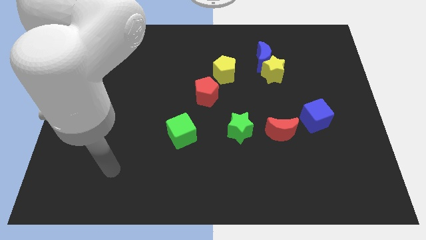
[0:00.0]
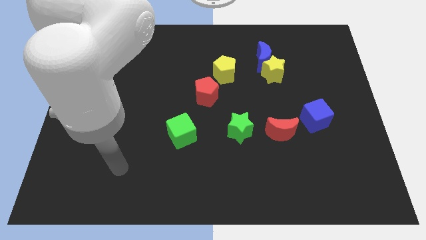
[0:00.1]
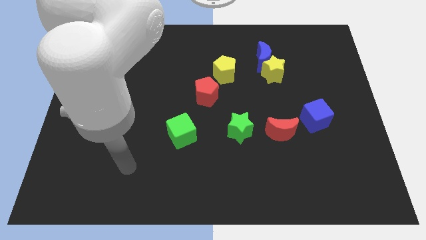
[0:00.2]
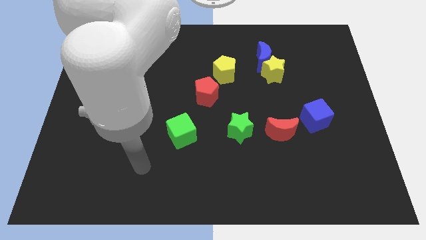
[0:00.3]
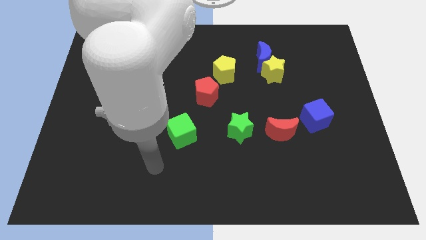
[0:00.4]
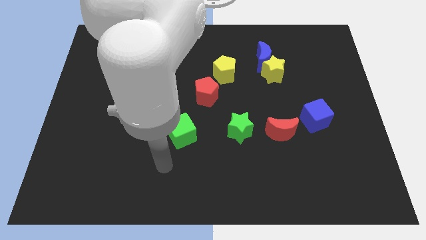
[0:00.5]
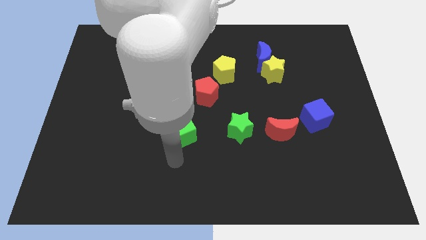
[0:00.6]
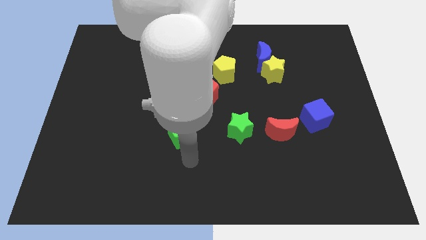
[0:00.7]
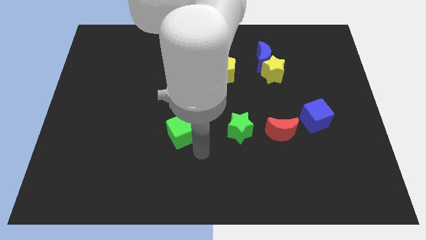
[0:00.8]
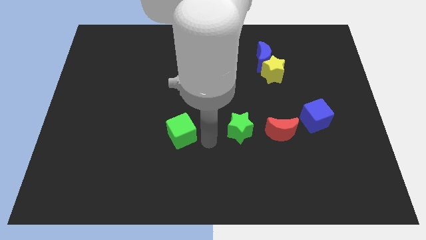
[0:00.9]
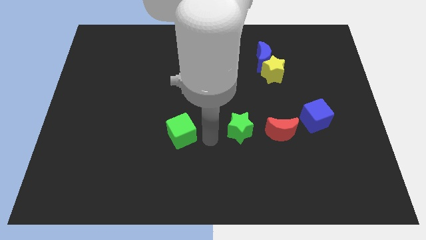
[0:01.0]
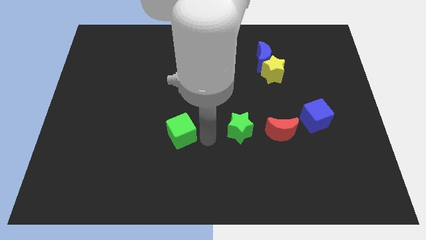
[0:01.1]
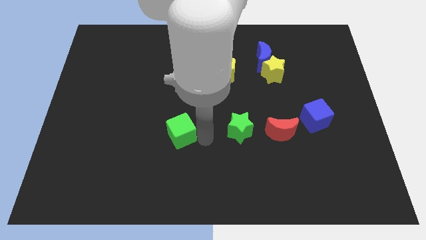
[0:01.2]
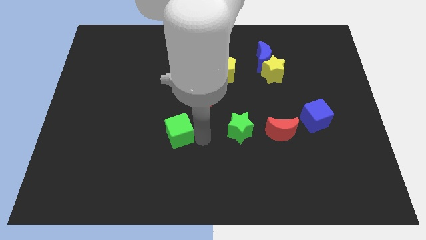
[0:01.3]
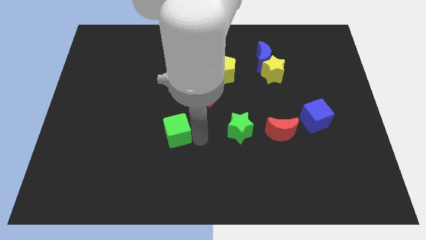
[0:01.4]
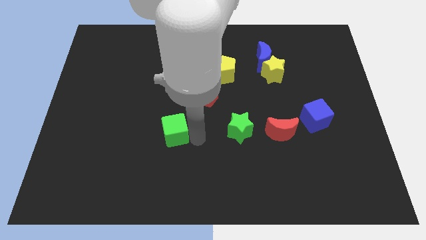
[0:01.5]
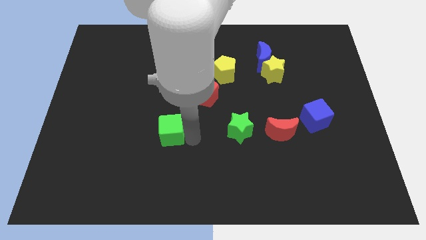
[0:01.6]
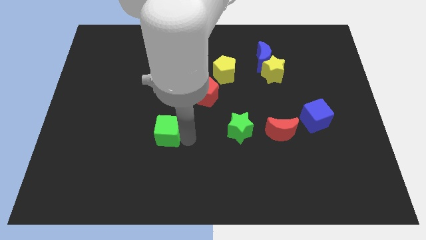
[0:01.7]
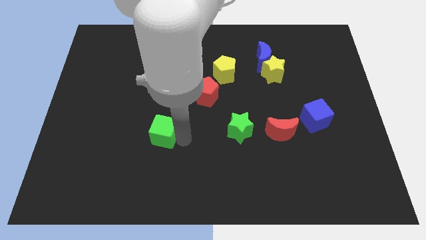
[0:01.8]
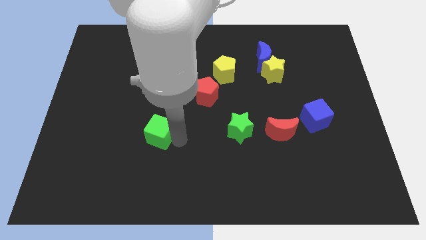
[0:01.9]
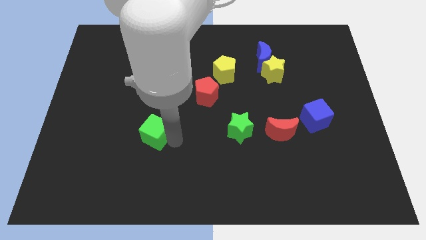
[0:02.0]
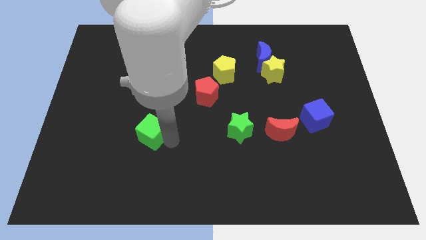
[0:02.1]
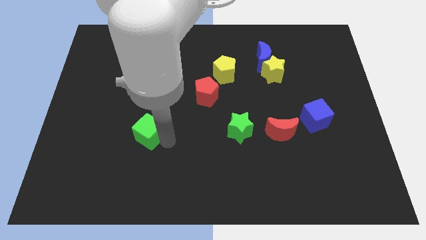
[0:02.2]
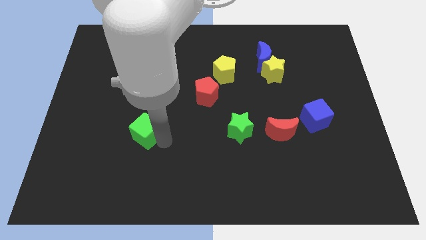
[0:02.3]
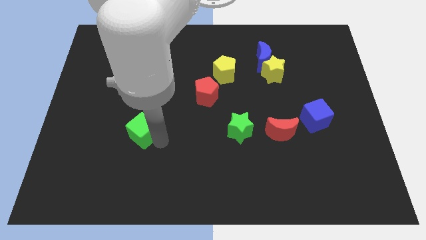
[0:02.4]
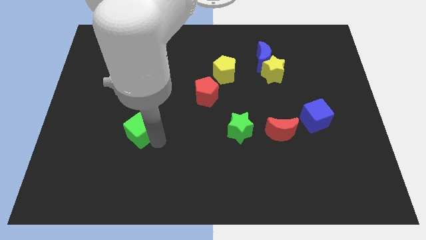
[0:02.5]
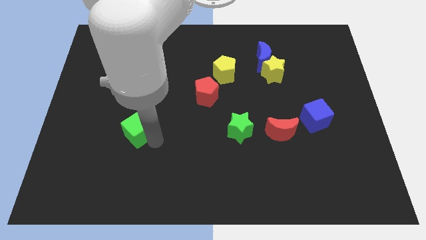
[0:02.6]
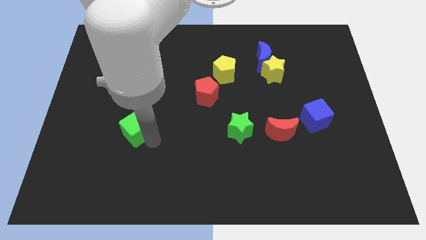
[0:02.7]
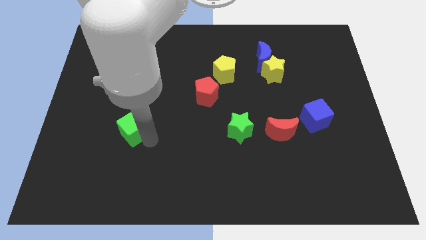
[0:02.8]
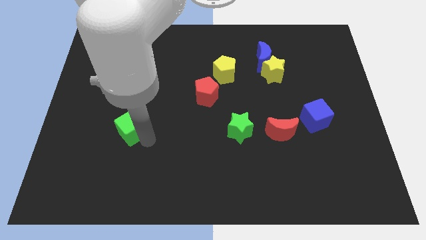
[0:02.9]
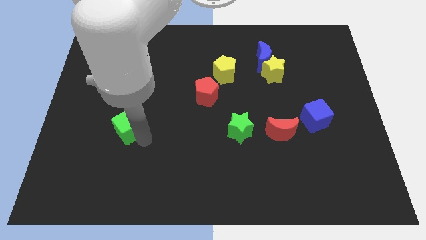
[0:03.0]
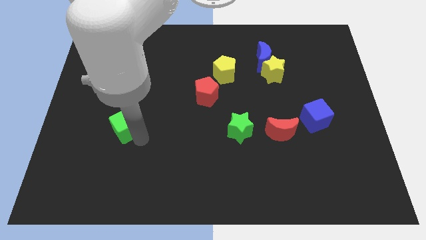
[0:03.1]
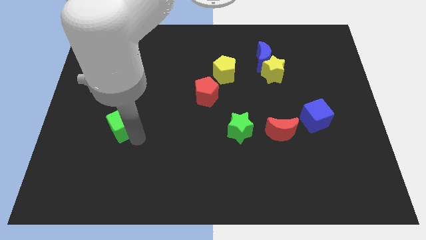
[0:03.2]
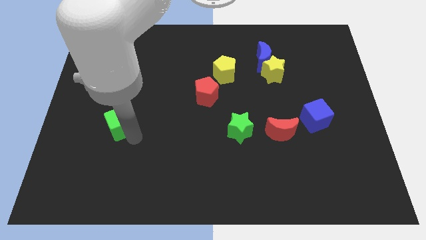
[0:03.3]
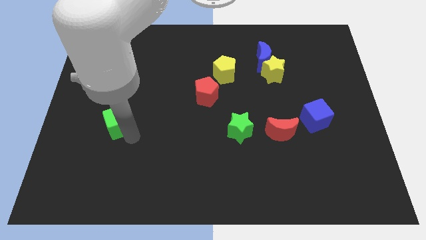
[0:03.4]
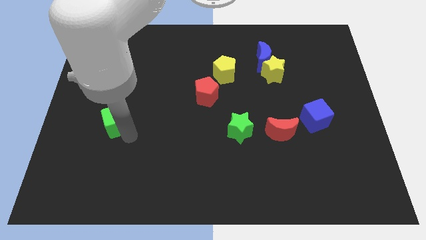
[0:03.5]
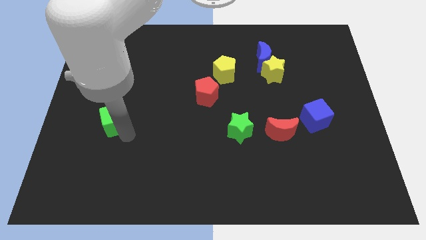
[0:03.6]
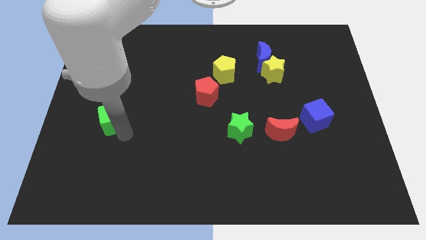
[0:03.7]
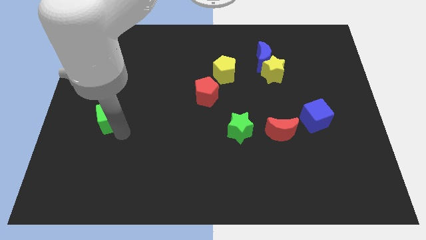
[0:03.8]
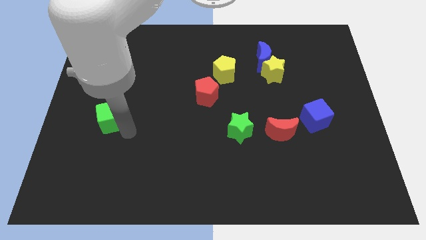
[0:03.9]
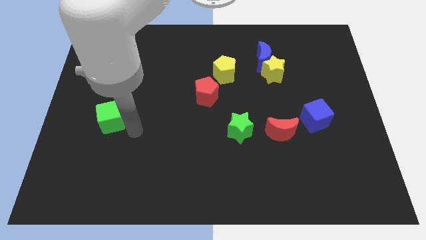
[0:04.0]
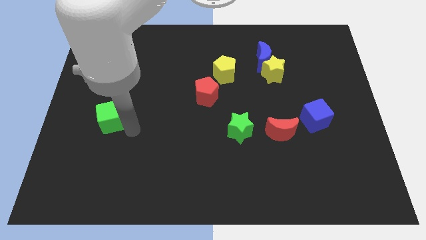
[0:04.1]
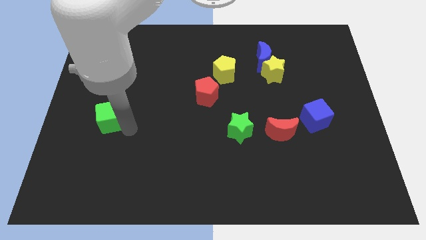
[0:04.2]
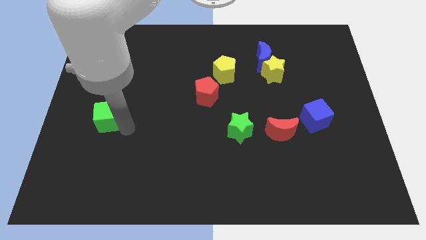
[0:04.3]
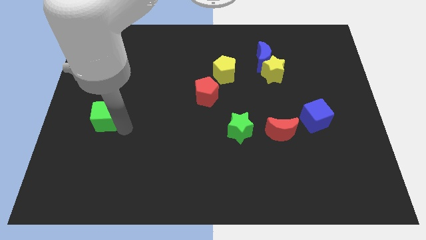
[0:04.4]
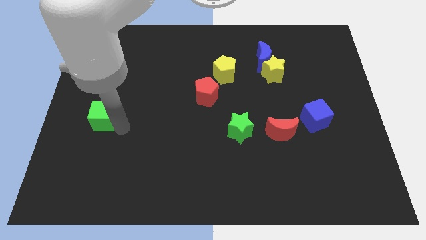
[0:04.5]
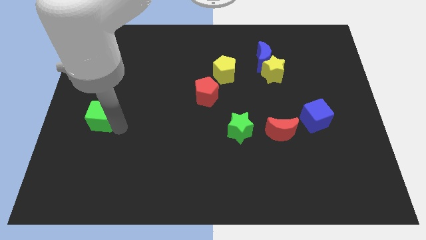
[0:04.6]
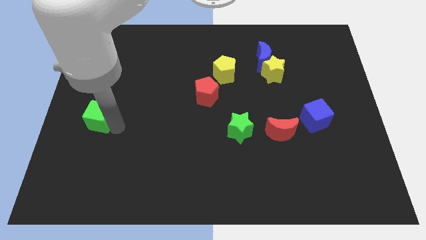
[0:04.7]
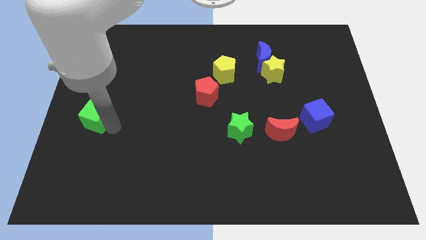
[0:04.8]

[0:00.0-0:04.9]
put the green cube to the left side of the board

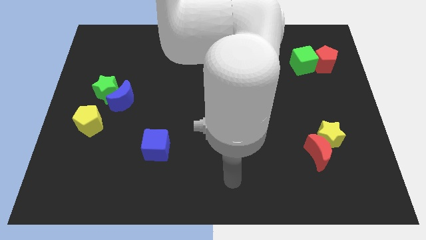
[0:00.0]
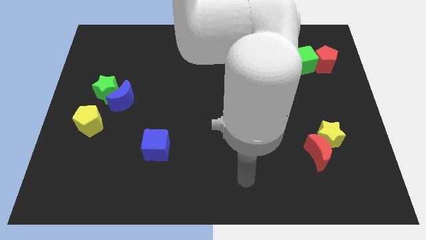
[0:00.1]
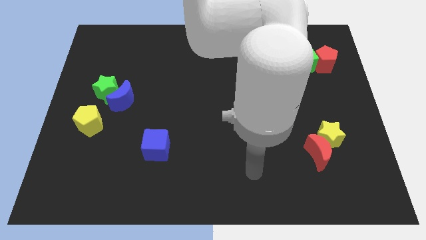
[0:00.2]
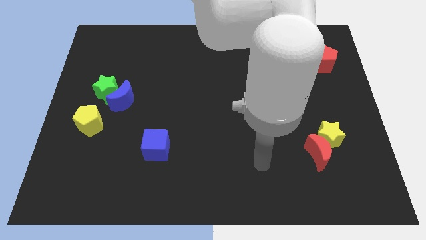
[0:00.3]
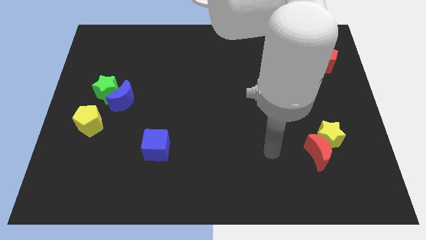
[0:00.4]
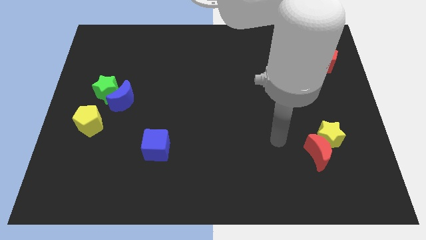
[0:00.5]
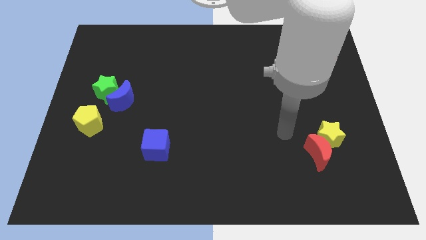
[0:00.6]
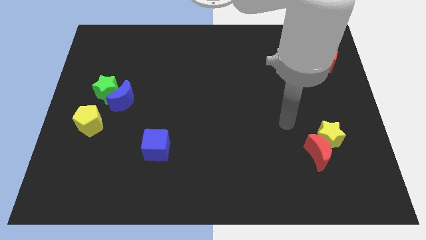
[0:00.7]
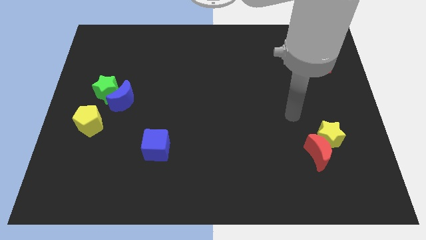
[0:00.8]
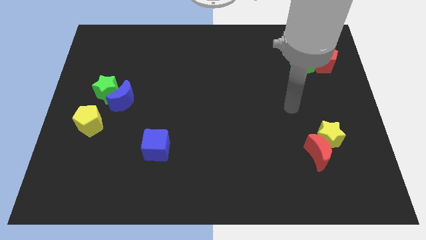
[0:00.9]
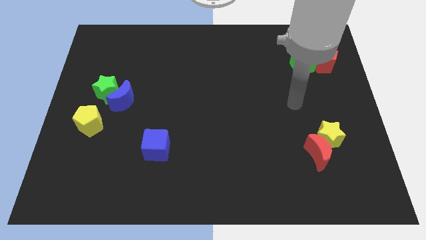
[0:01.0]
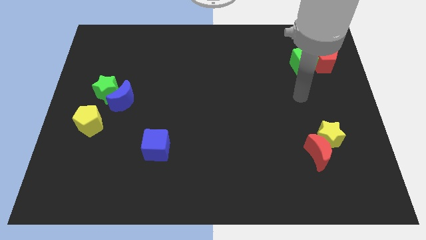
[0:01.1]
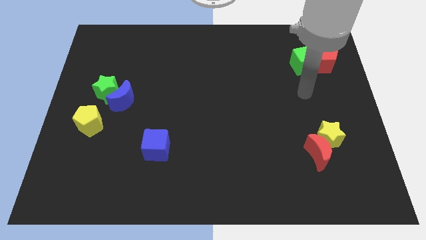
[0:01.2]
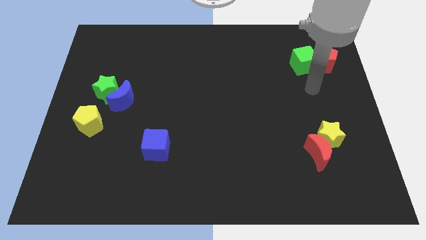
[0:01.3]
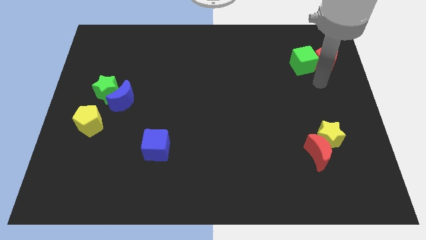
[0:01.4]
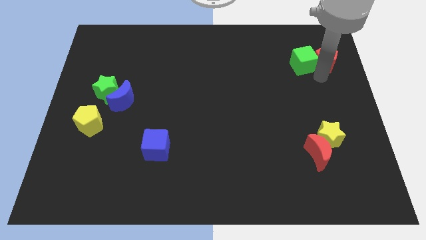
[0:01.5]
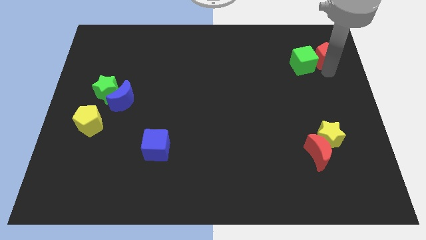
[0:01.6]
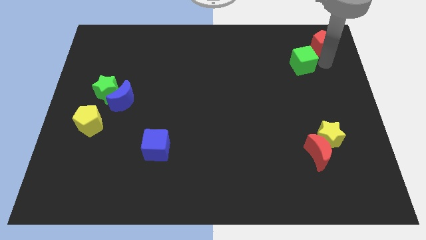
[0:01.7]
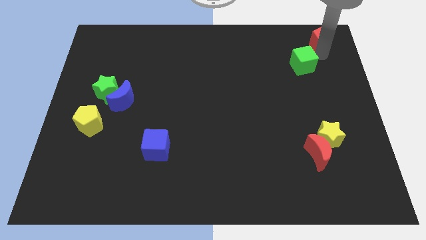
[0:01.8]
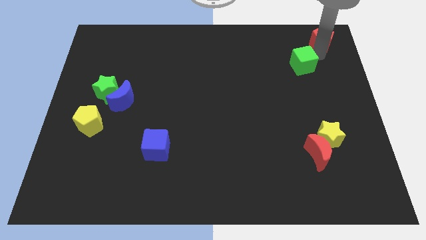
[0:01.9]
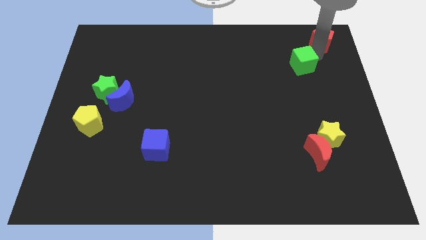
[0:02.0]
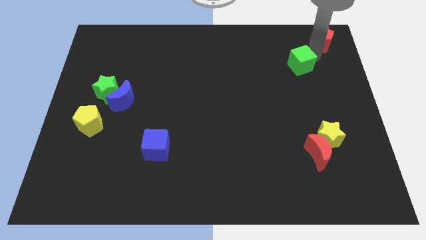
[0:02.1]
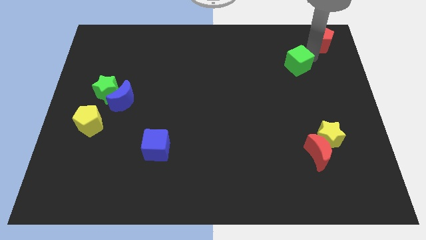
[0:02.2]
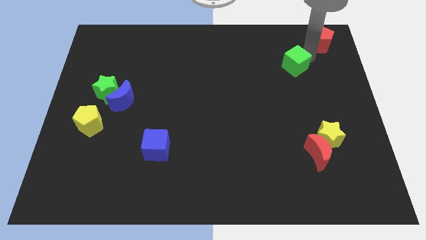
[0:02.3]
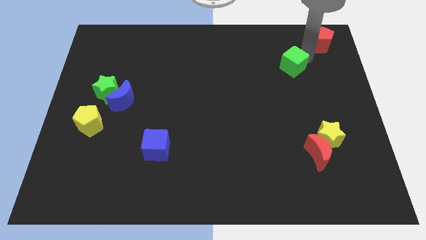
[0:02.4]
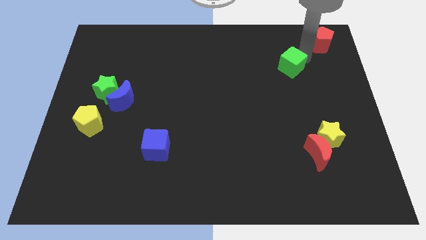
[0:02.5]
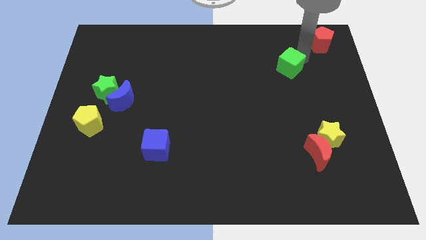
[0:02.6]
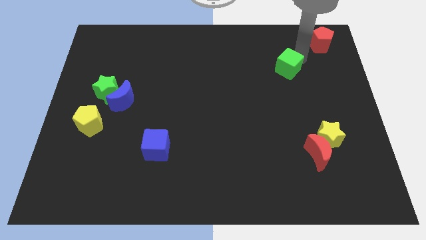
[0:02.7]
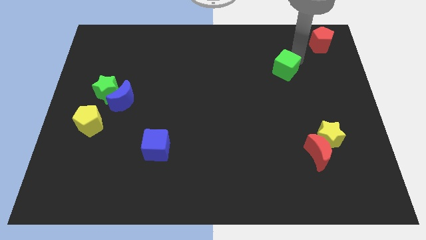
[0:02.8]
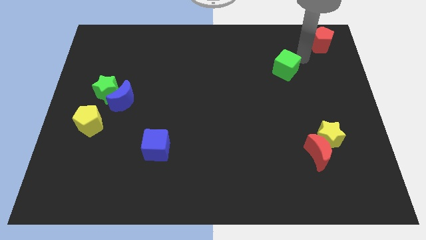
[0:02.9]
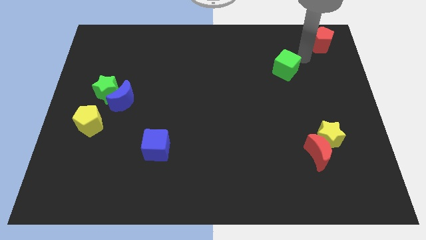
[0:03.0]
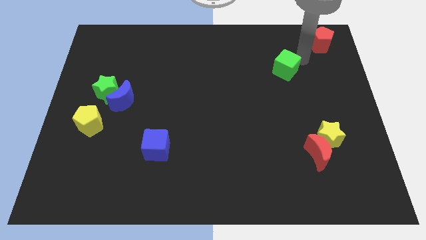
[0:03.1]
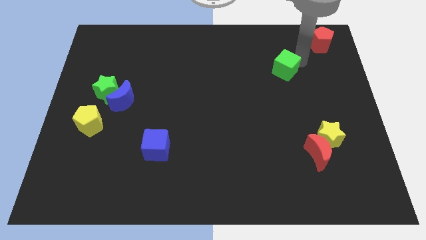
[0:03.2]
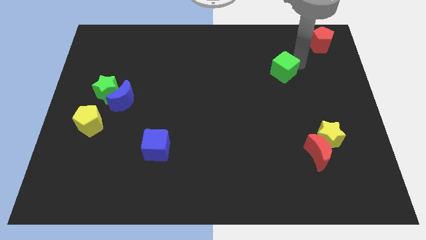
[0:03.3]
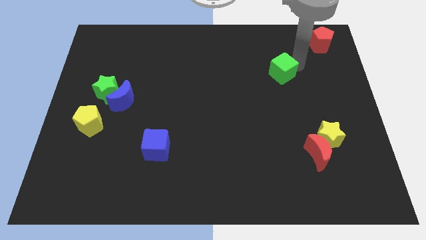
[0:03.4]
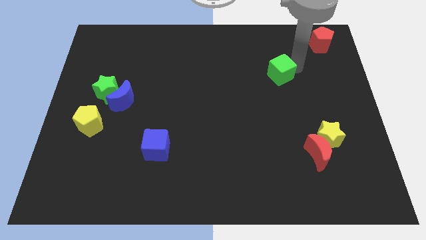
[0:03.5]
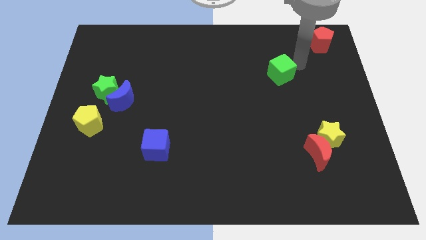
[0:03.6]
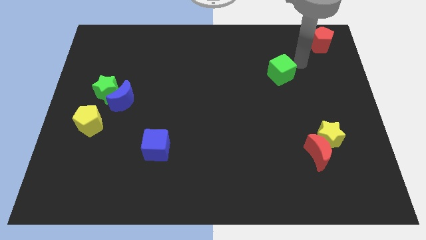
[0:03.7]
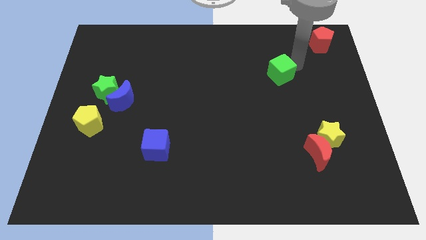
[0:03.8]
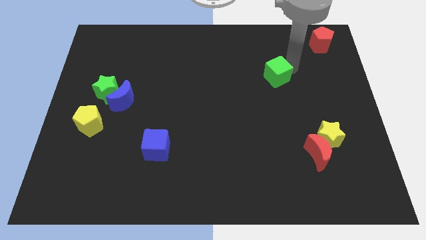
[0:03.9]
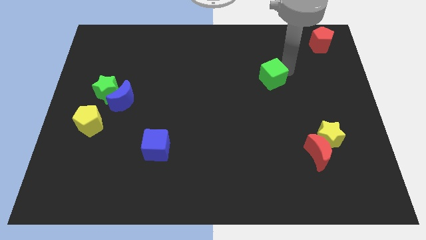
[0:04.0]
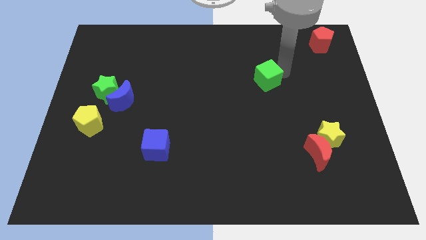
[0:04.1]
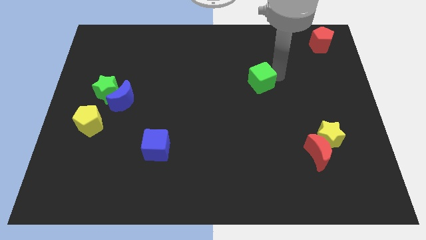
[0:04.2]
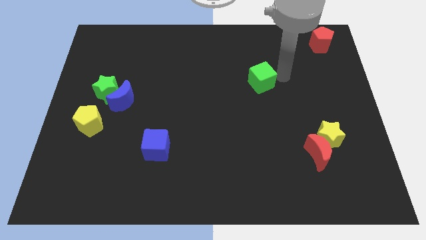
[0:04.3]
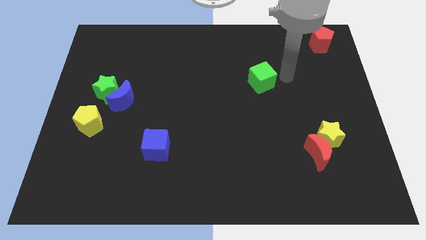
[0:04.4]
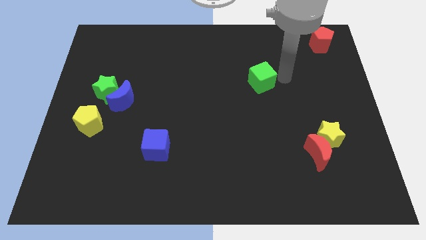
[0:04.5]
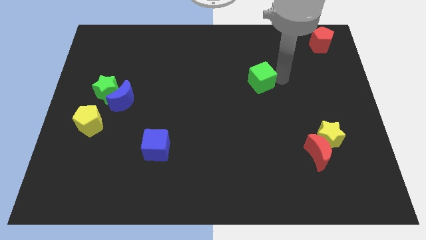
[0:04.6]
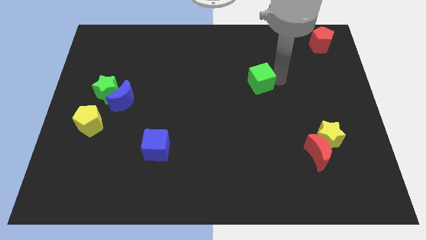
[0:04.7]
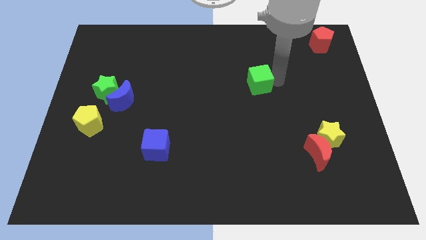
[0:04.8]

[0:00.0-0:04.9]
move the green cube to the middle of the board
